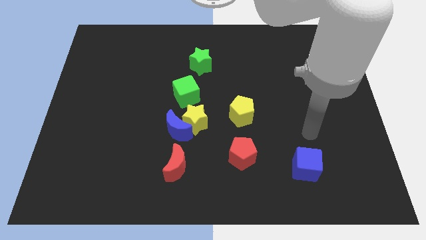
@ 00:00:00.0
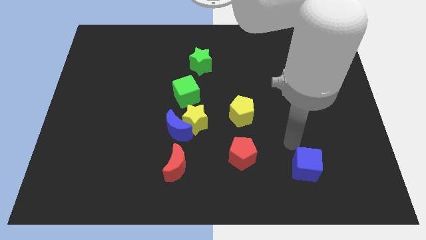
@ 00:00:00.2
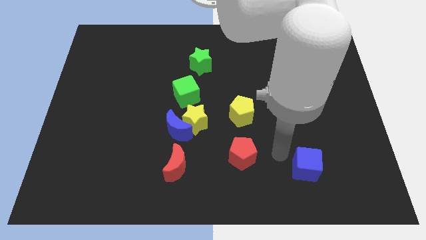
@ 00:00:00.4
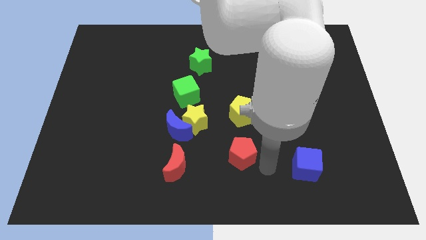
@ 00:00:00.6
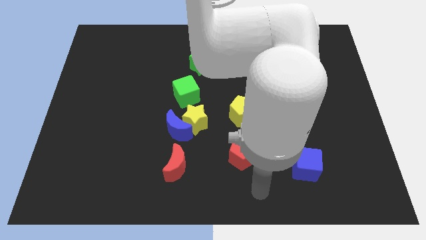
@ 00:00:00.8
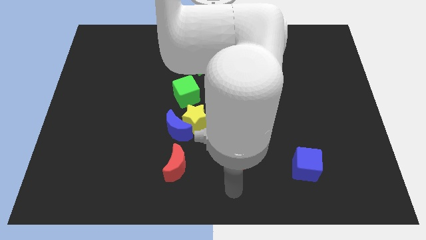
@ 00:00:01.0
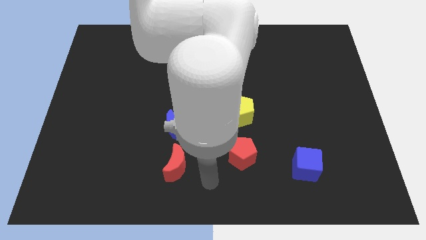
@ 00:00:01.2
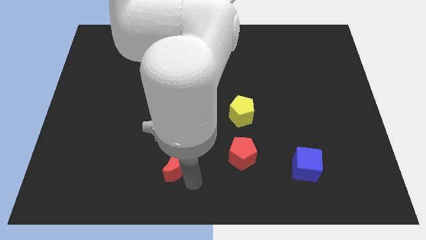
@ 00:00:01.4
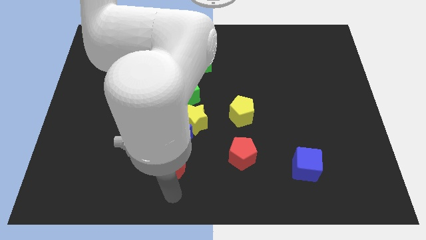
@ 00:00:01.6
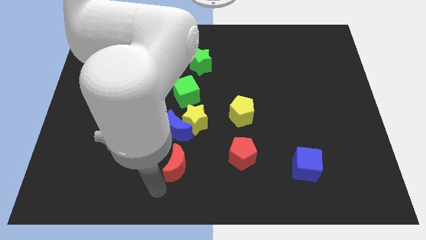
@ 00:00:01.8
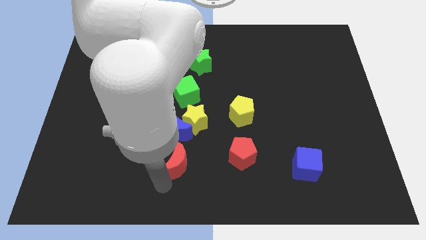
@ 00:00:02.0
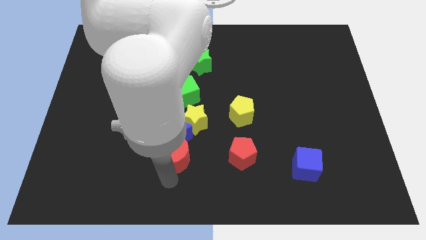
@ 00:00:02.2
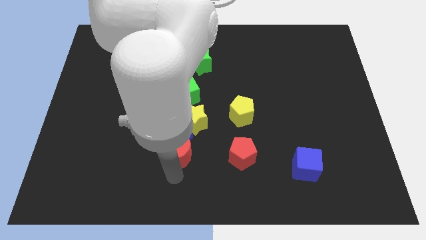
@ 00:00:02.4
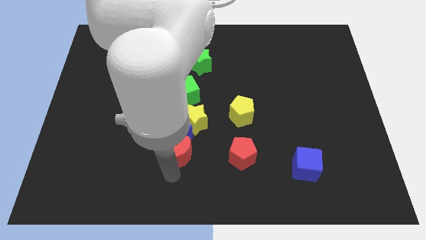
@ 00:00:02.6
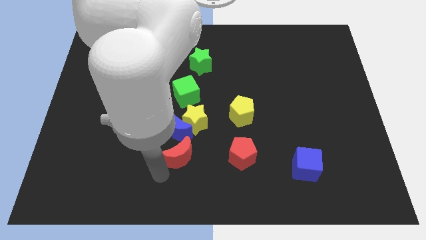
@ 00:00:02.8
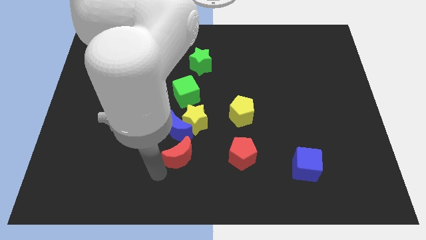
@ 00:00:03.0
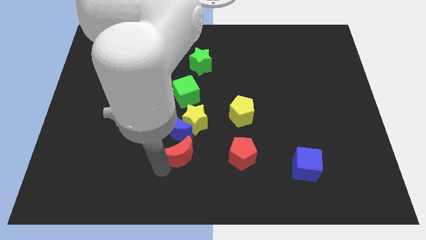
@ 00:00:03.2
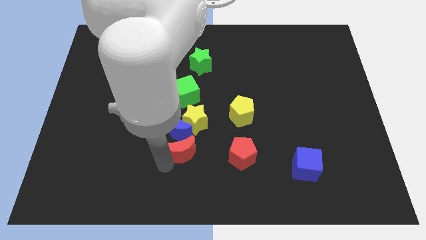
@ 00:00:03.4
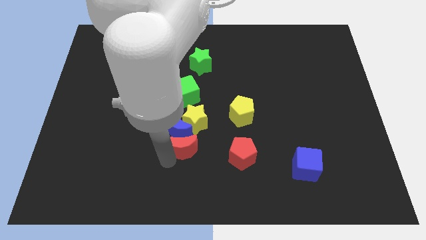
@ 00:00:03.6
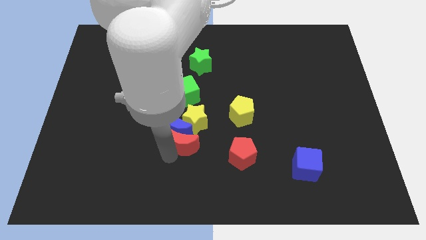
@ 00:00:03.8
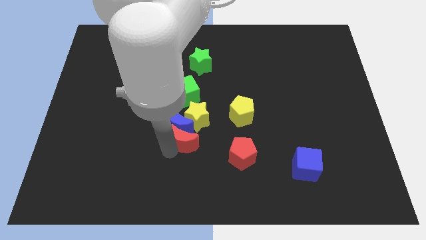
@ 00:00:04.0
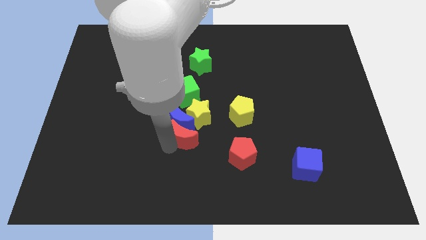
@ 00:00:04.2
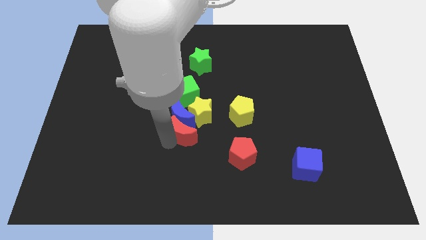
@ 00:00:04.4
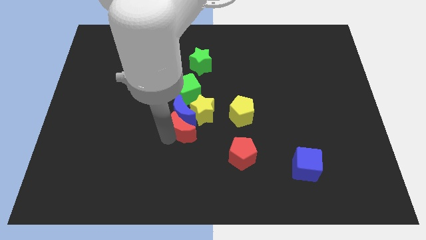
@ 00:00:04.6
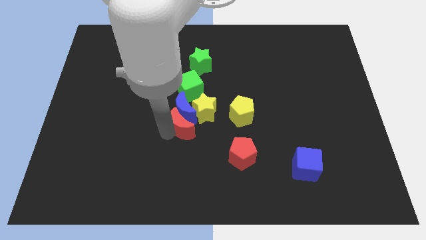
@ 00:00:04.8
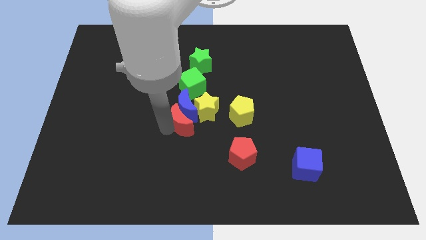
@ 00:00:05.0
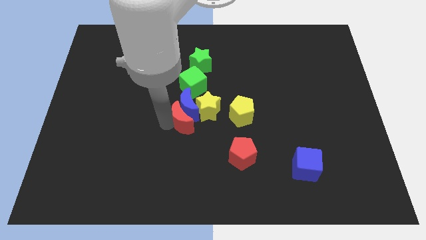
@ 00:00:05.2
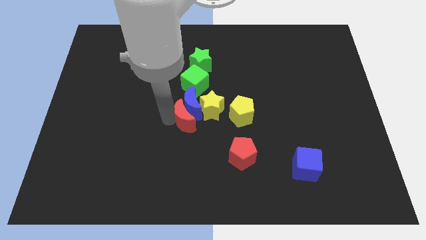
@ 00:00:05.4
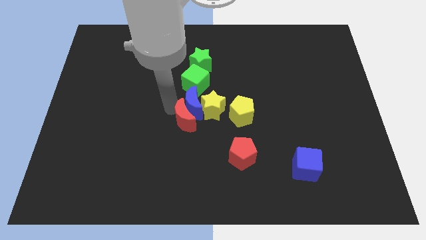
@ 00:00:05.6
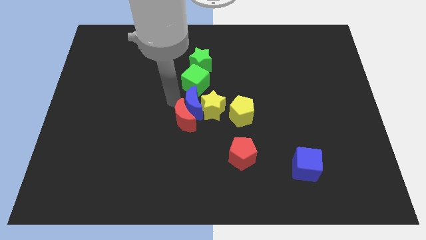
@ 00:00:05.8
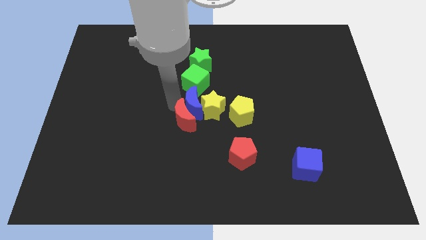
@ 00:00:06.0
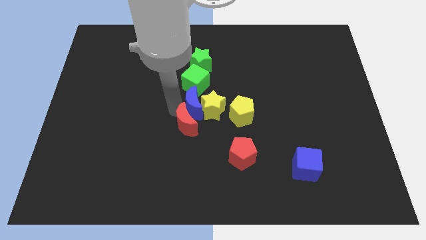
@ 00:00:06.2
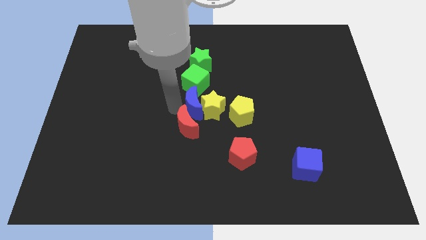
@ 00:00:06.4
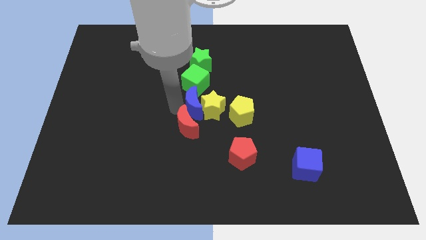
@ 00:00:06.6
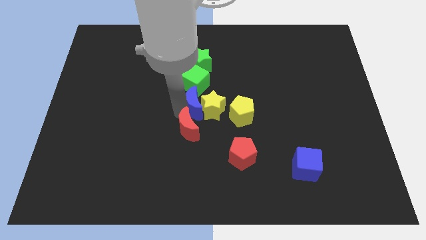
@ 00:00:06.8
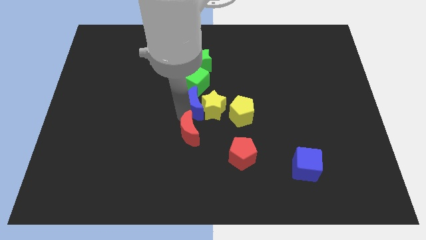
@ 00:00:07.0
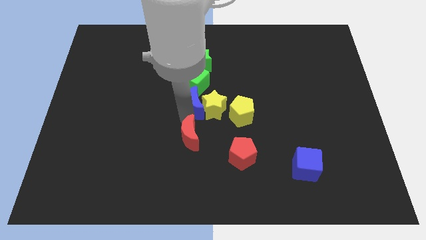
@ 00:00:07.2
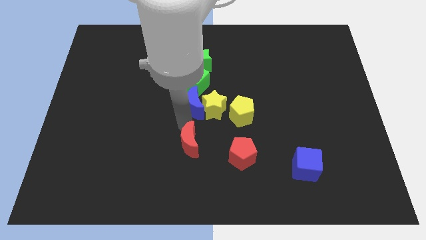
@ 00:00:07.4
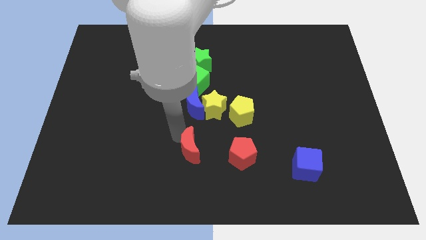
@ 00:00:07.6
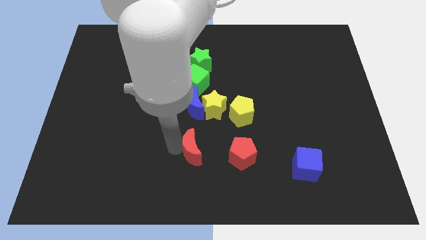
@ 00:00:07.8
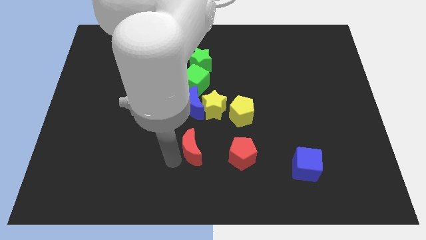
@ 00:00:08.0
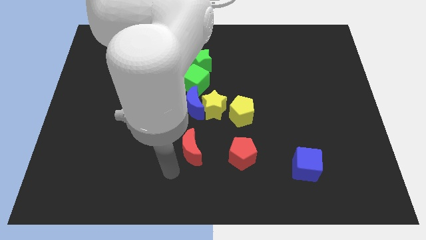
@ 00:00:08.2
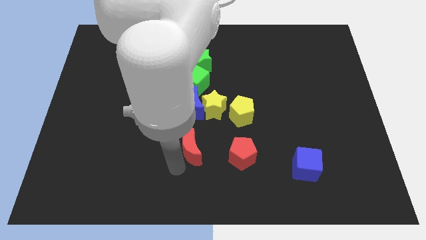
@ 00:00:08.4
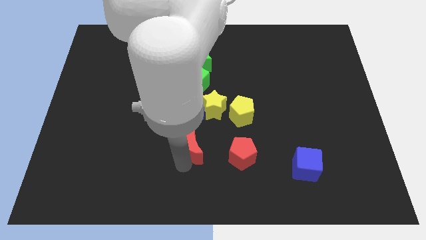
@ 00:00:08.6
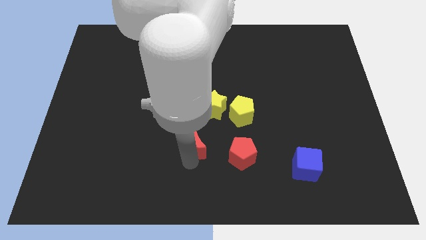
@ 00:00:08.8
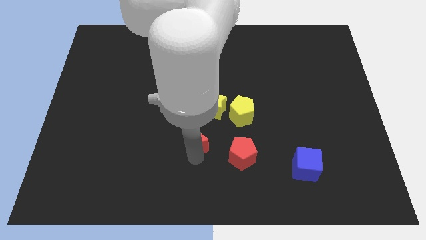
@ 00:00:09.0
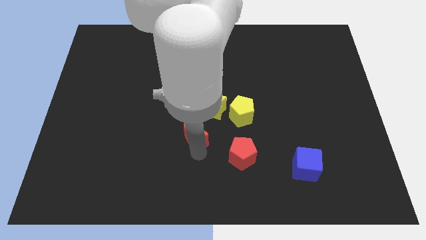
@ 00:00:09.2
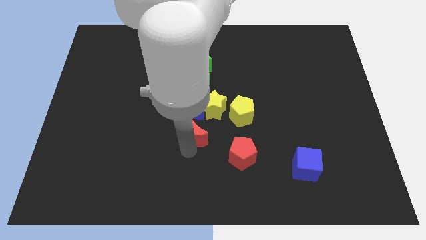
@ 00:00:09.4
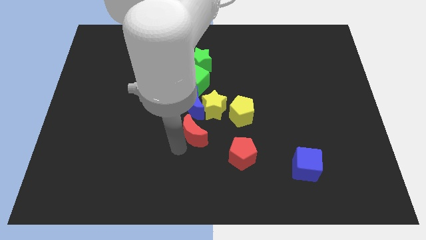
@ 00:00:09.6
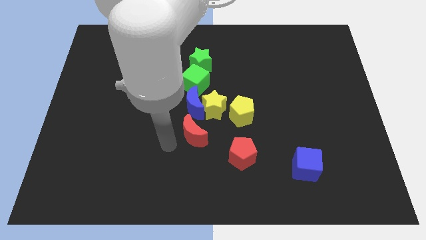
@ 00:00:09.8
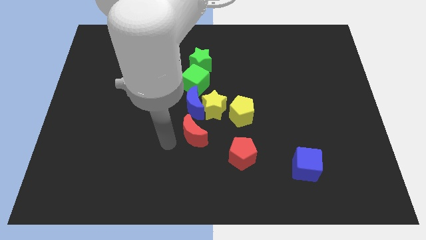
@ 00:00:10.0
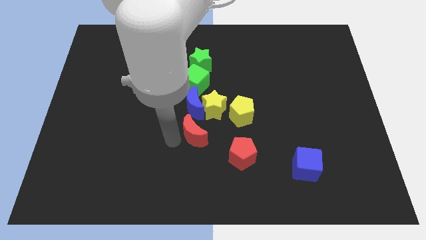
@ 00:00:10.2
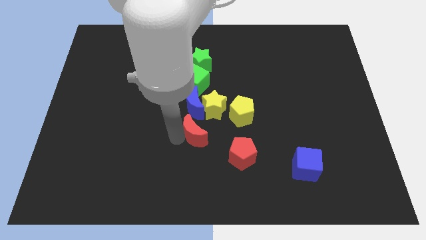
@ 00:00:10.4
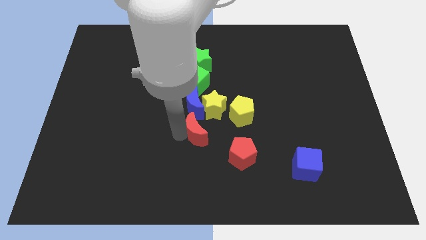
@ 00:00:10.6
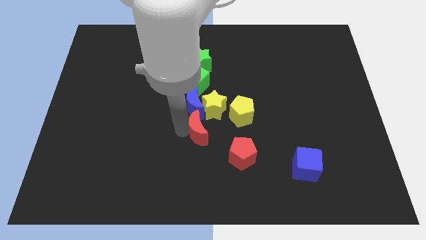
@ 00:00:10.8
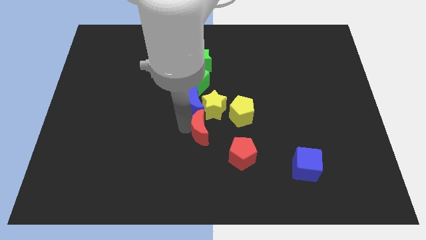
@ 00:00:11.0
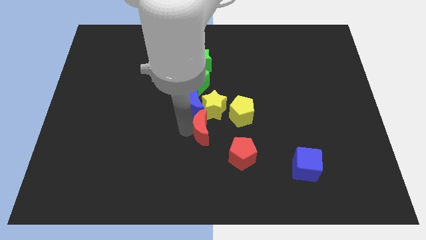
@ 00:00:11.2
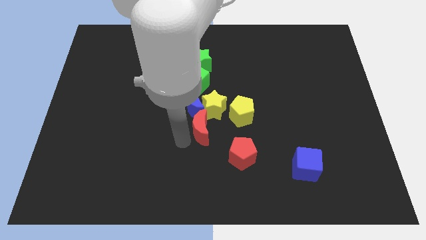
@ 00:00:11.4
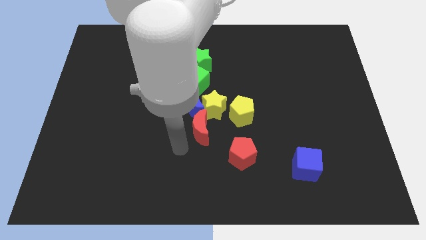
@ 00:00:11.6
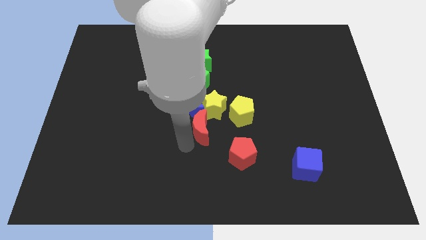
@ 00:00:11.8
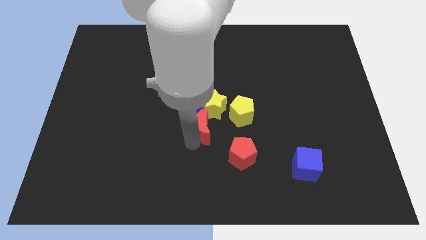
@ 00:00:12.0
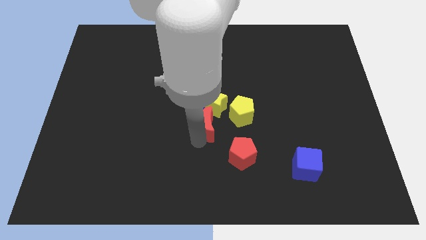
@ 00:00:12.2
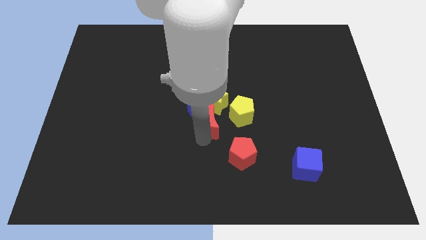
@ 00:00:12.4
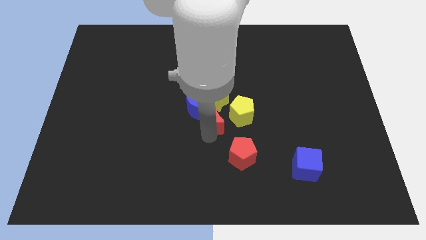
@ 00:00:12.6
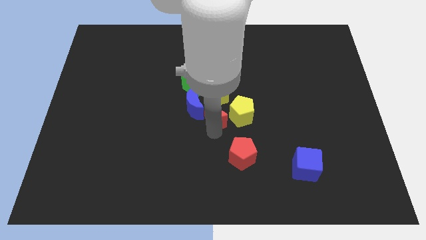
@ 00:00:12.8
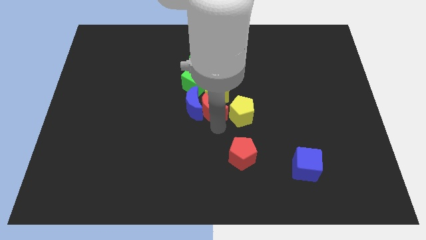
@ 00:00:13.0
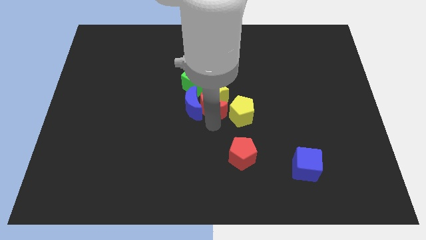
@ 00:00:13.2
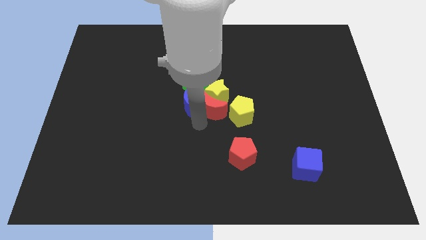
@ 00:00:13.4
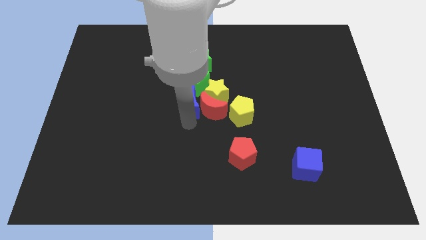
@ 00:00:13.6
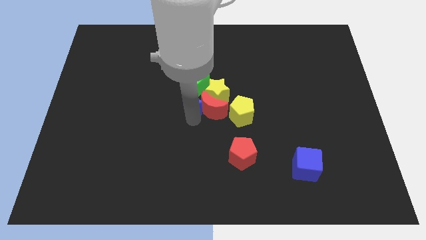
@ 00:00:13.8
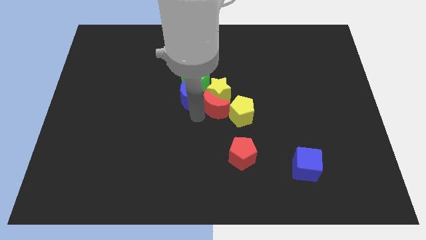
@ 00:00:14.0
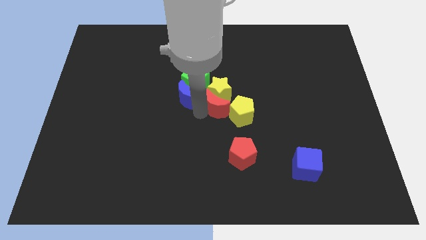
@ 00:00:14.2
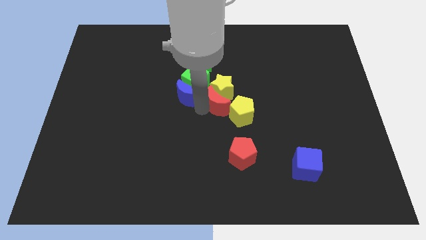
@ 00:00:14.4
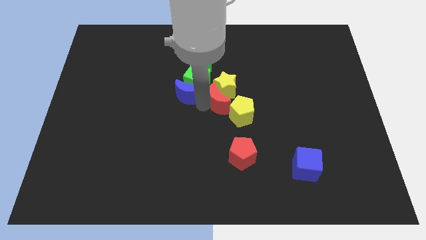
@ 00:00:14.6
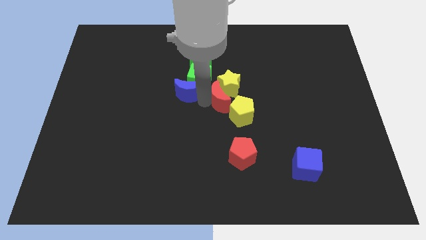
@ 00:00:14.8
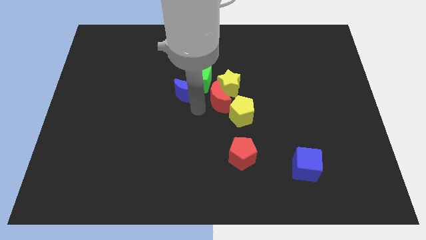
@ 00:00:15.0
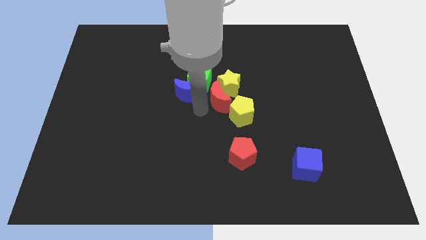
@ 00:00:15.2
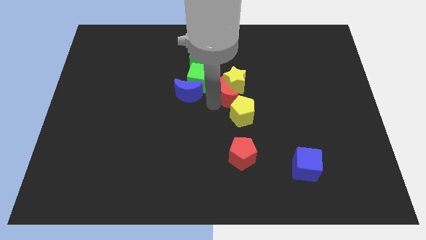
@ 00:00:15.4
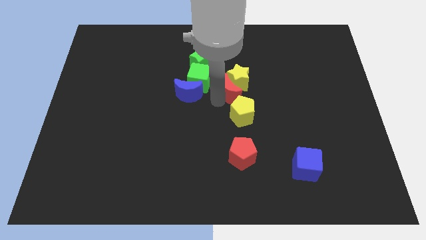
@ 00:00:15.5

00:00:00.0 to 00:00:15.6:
slide the red moon upwards and then right
